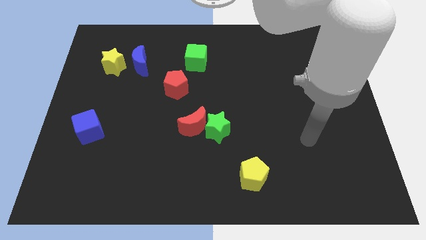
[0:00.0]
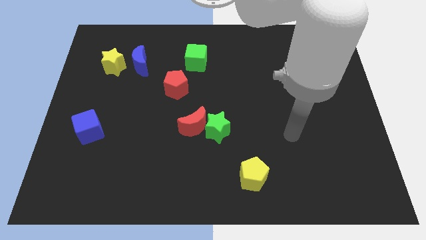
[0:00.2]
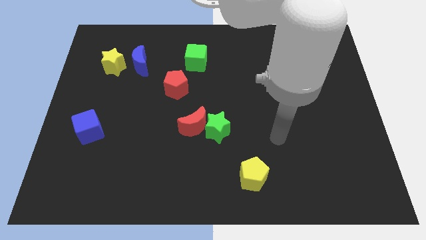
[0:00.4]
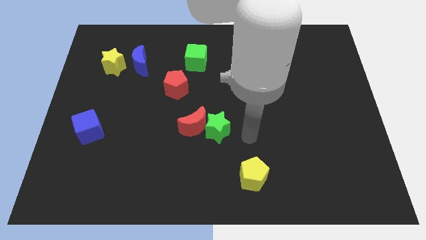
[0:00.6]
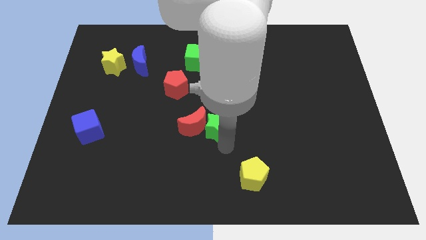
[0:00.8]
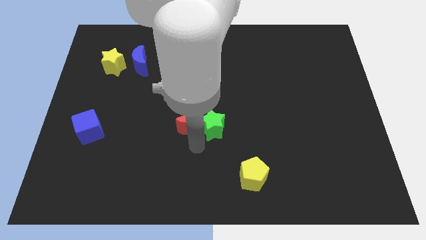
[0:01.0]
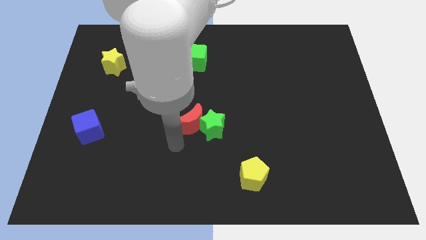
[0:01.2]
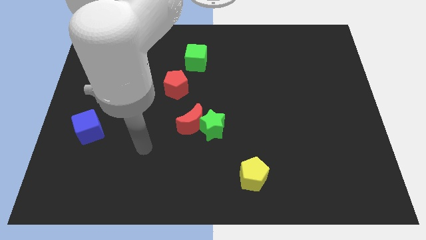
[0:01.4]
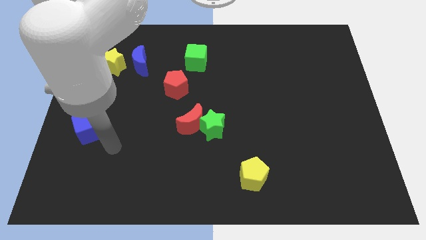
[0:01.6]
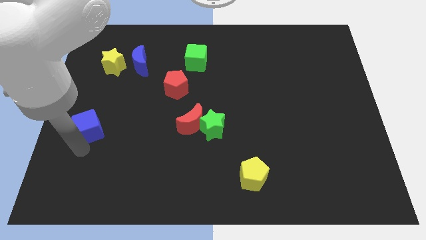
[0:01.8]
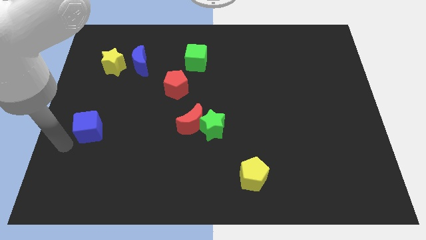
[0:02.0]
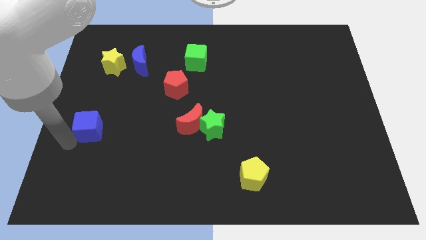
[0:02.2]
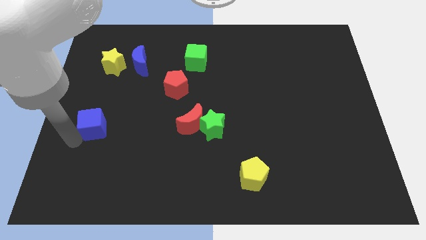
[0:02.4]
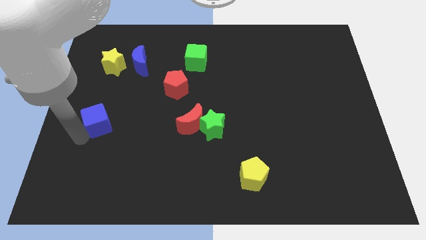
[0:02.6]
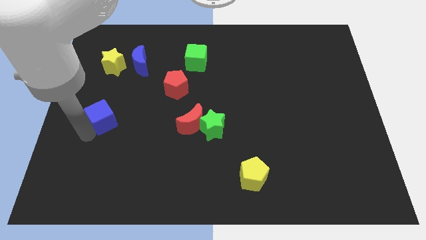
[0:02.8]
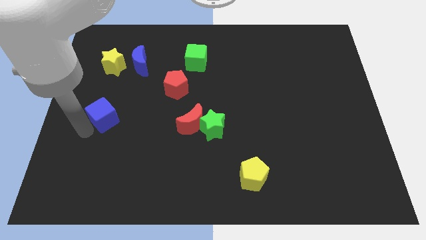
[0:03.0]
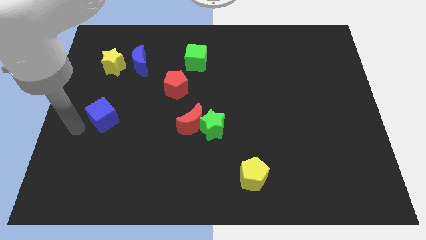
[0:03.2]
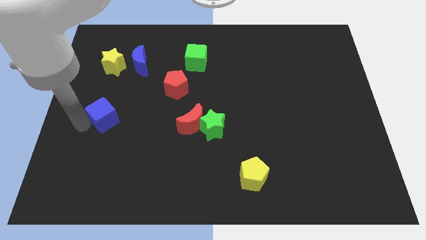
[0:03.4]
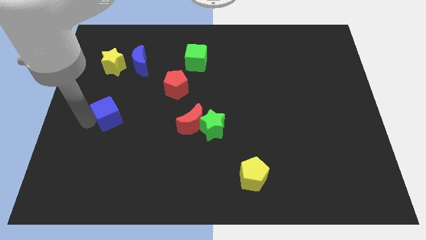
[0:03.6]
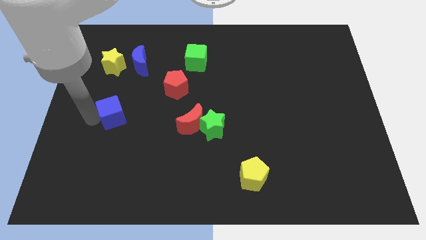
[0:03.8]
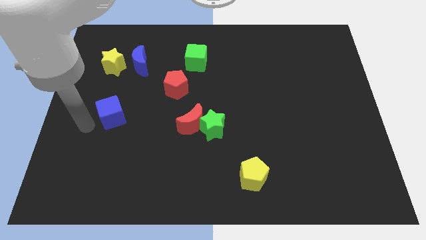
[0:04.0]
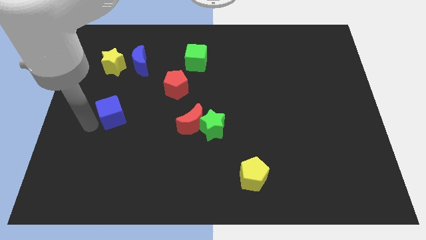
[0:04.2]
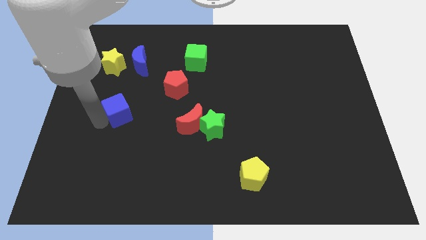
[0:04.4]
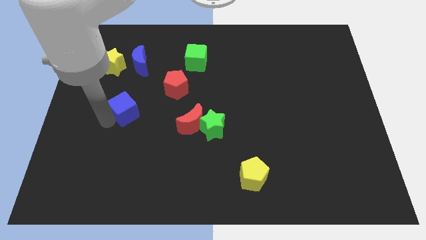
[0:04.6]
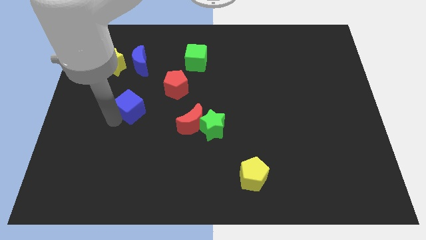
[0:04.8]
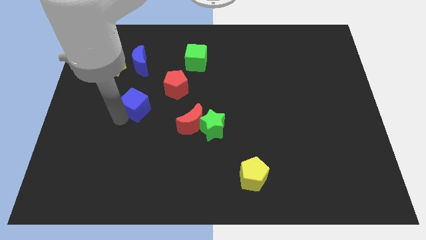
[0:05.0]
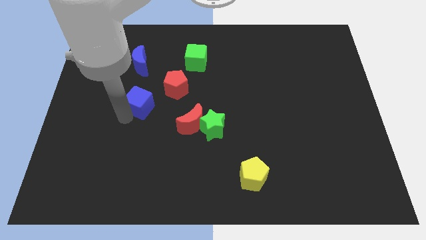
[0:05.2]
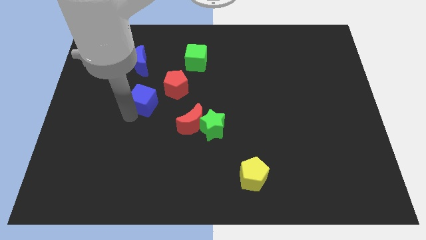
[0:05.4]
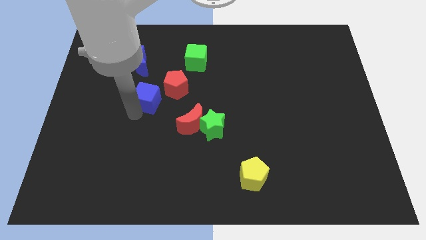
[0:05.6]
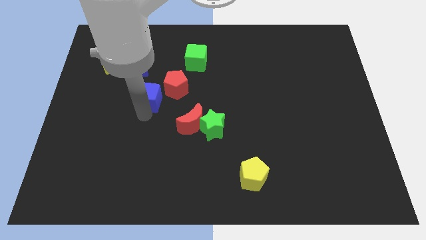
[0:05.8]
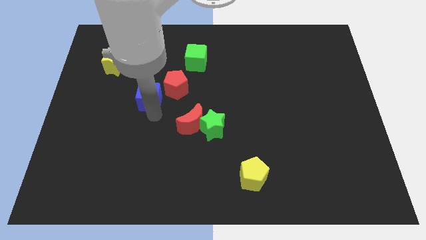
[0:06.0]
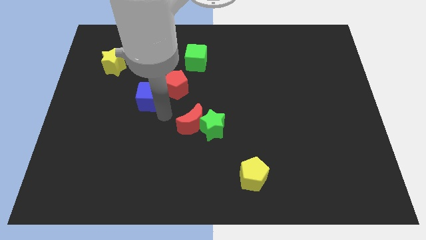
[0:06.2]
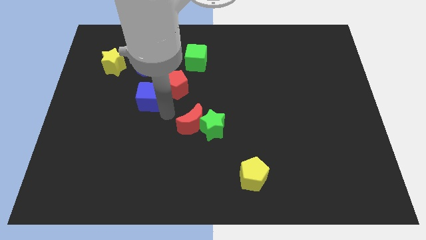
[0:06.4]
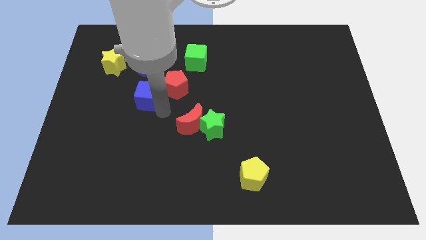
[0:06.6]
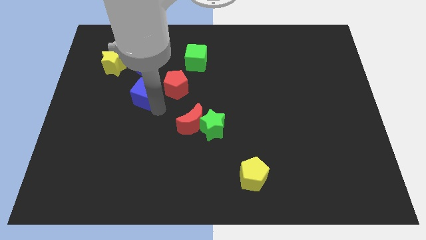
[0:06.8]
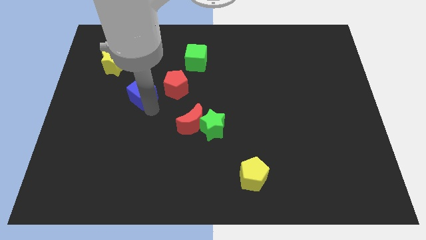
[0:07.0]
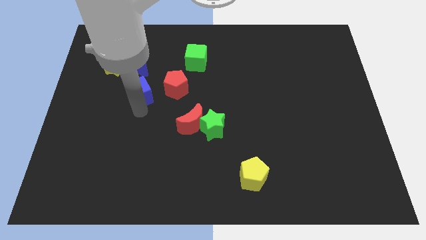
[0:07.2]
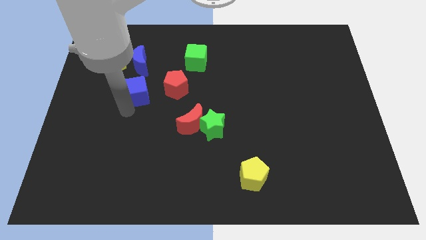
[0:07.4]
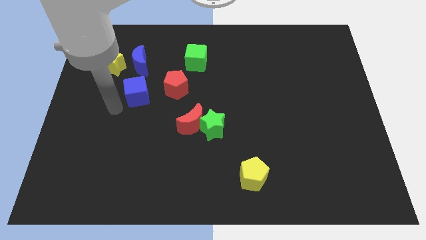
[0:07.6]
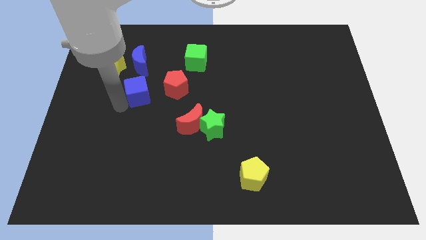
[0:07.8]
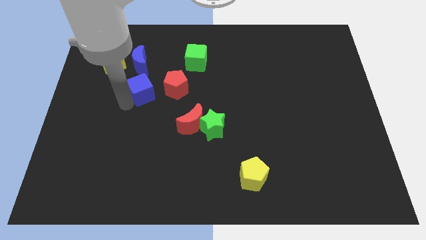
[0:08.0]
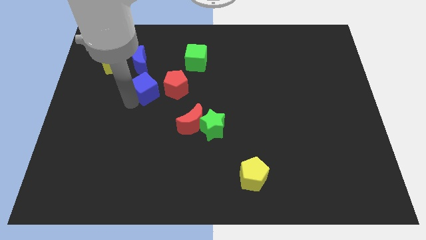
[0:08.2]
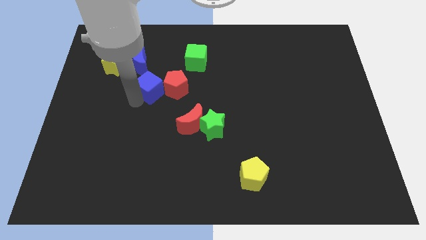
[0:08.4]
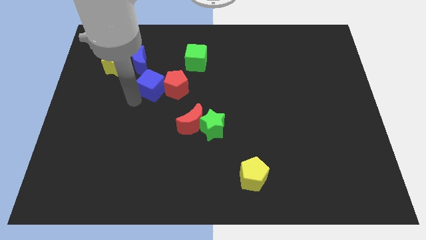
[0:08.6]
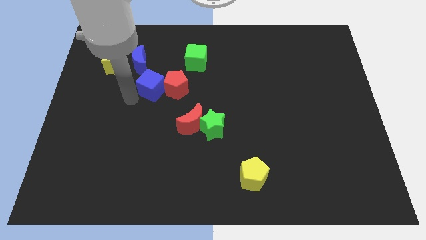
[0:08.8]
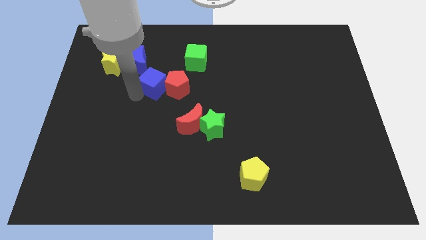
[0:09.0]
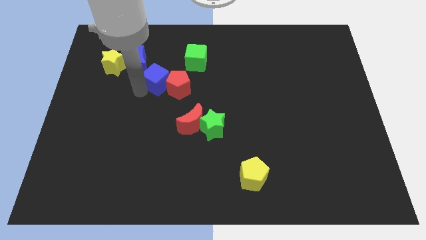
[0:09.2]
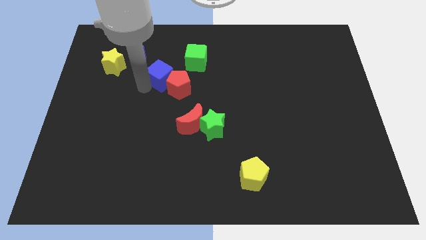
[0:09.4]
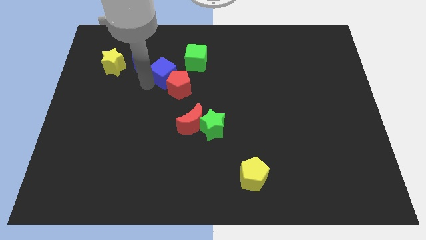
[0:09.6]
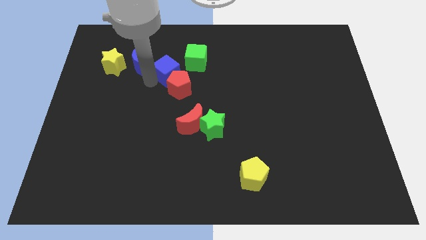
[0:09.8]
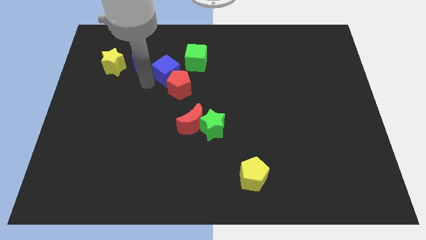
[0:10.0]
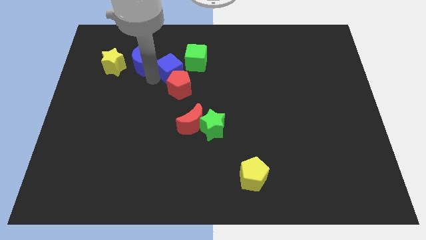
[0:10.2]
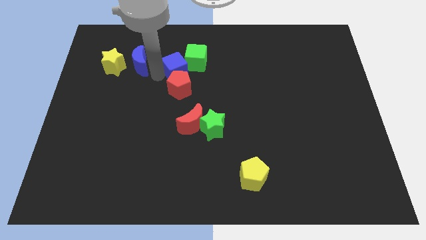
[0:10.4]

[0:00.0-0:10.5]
put the blue cube close to the green cube

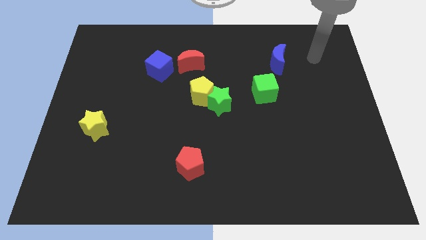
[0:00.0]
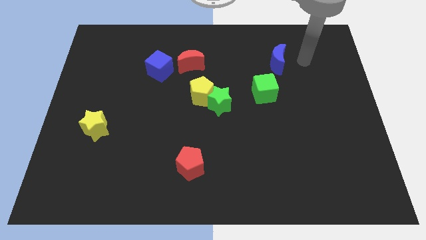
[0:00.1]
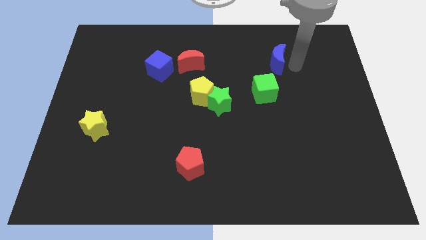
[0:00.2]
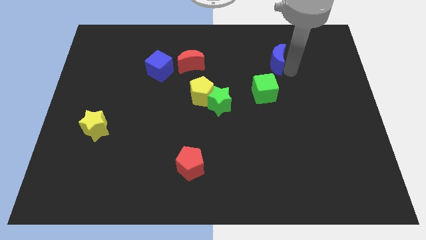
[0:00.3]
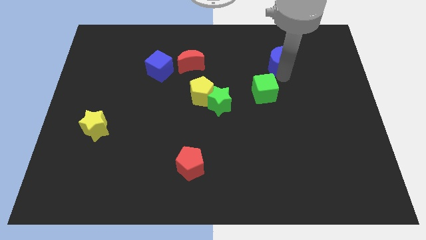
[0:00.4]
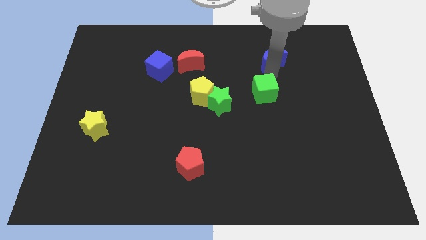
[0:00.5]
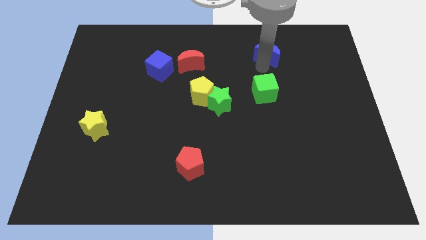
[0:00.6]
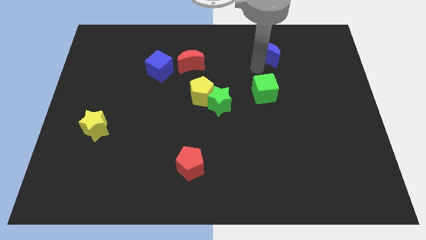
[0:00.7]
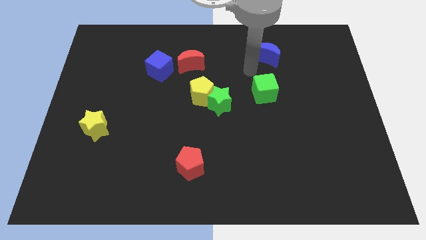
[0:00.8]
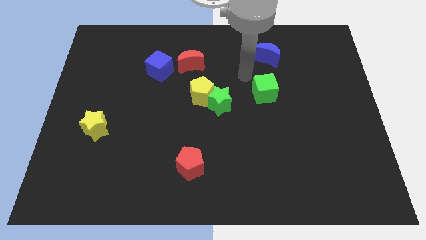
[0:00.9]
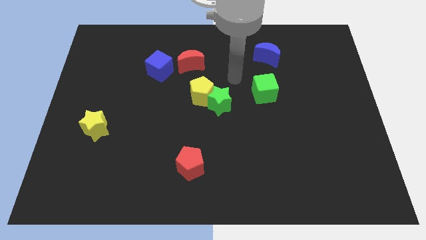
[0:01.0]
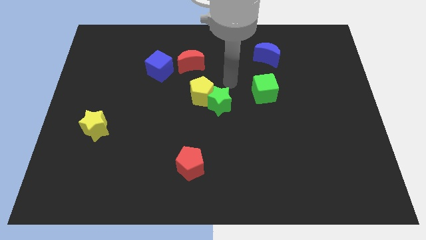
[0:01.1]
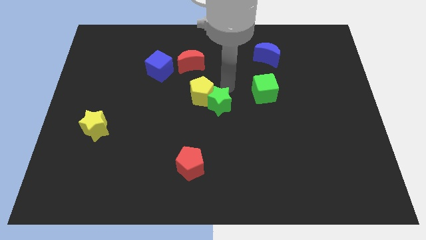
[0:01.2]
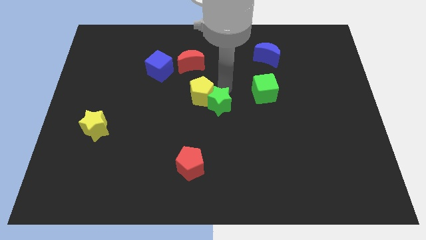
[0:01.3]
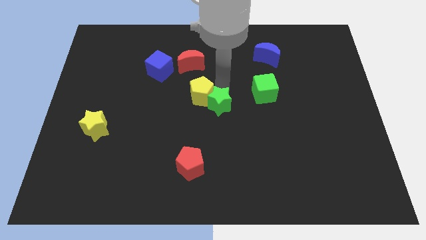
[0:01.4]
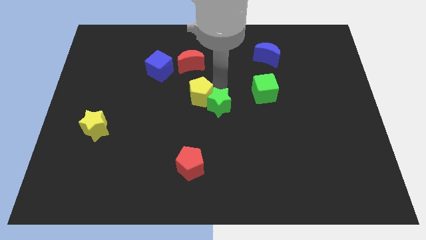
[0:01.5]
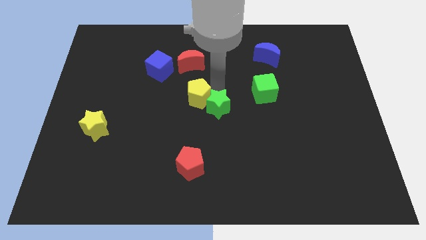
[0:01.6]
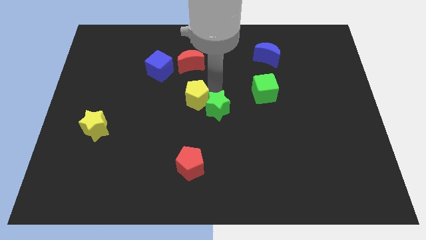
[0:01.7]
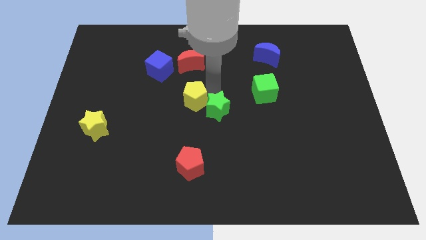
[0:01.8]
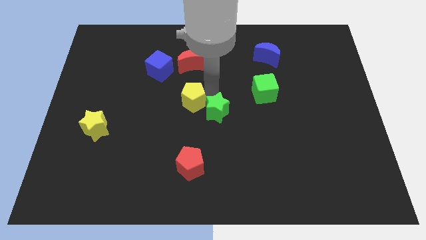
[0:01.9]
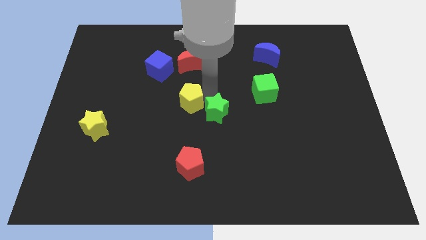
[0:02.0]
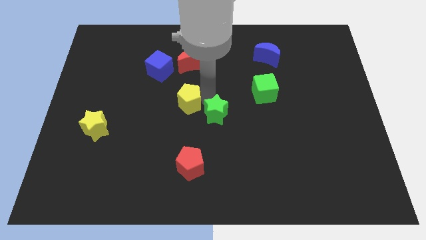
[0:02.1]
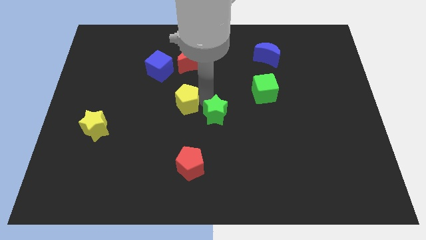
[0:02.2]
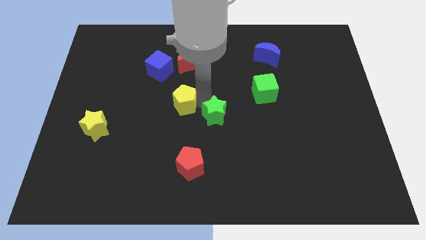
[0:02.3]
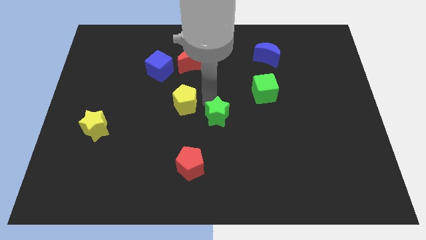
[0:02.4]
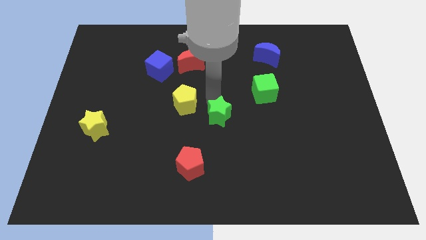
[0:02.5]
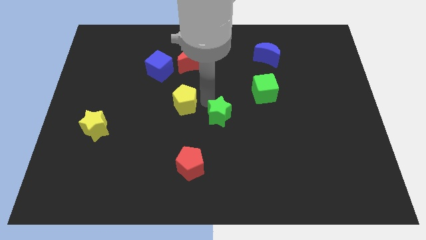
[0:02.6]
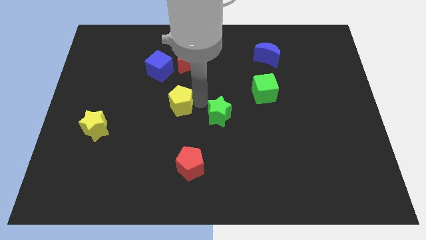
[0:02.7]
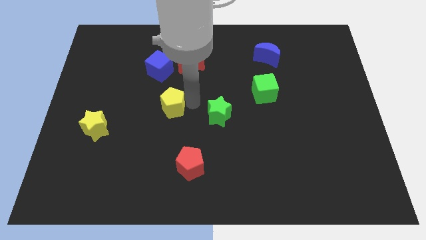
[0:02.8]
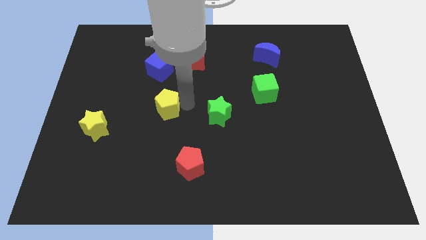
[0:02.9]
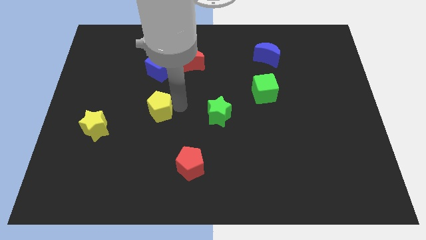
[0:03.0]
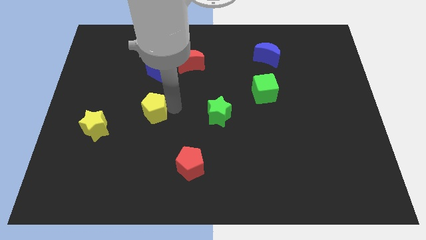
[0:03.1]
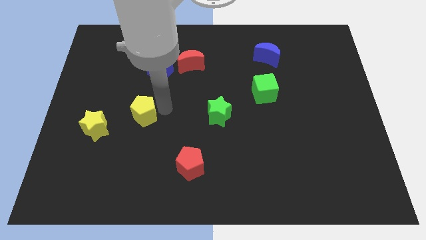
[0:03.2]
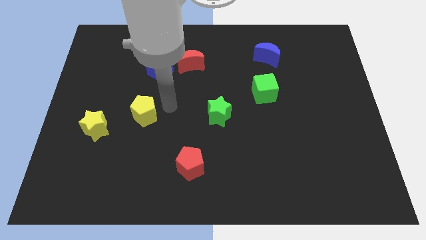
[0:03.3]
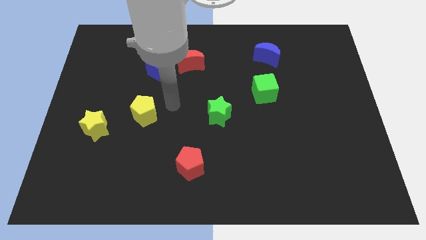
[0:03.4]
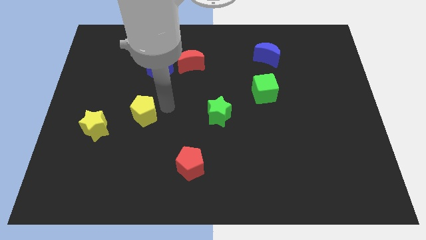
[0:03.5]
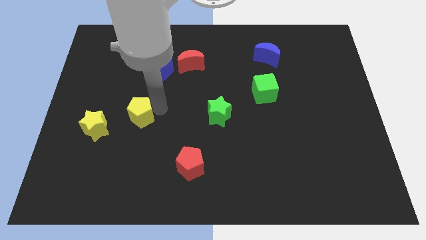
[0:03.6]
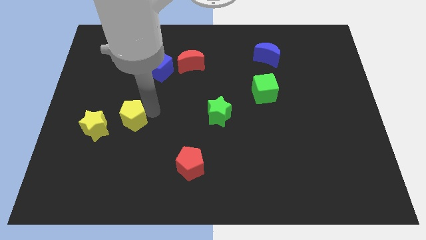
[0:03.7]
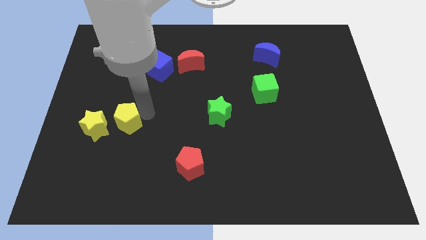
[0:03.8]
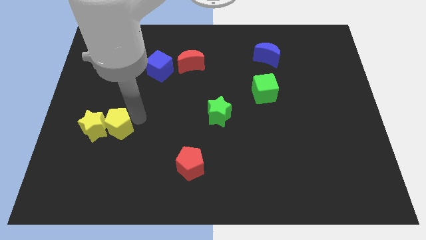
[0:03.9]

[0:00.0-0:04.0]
put the yellow pentagon to the yellow star
